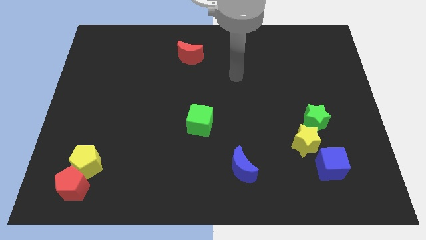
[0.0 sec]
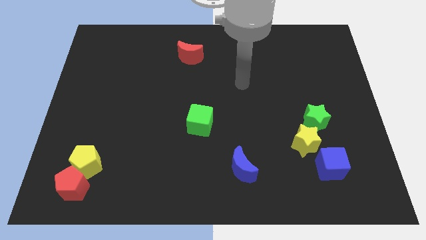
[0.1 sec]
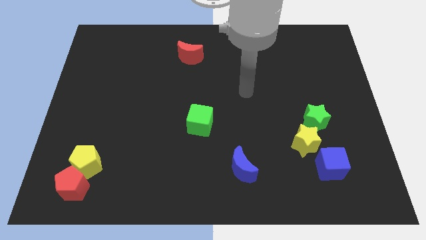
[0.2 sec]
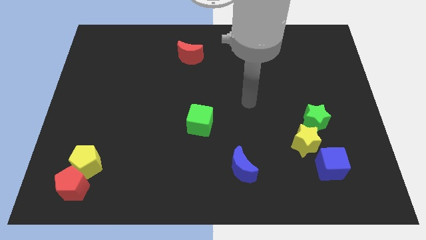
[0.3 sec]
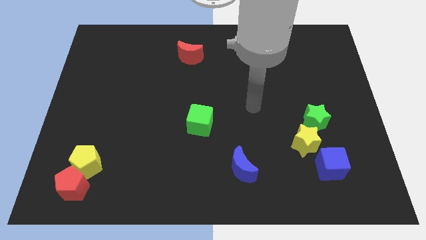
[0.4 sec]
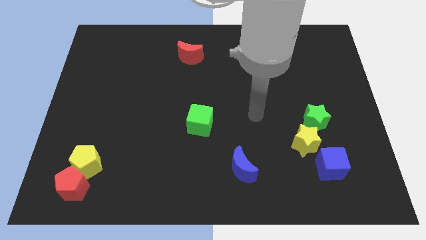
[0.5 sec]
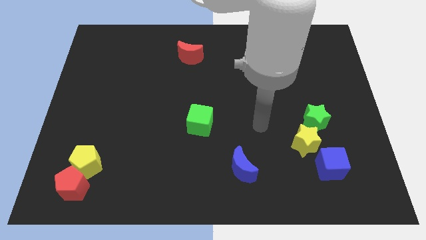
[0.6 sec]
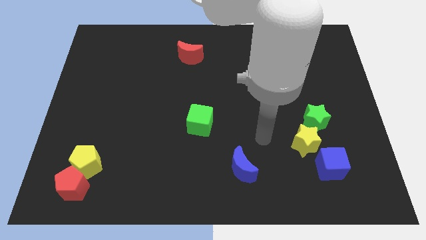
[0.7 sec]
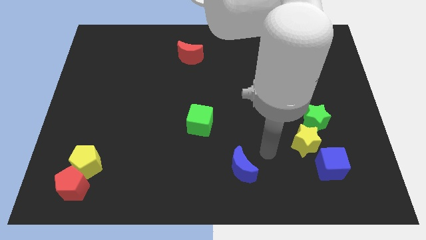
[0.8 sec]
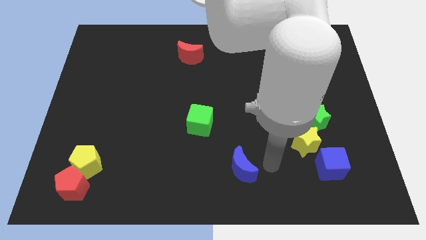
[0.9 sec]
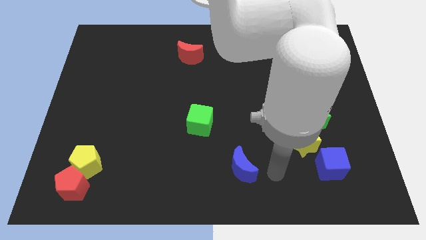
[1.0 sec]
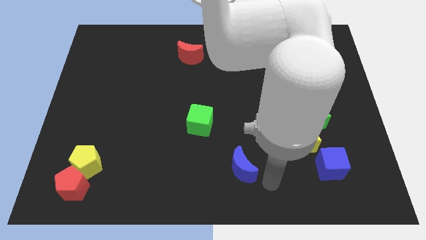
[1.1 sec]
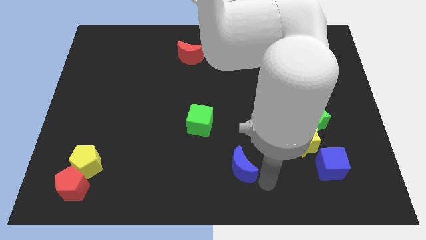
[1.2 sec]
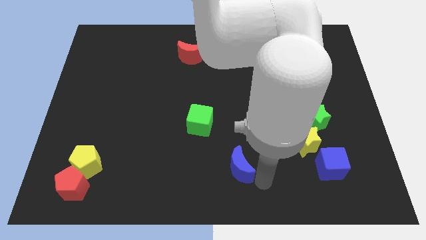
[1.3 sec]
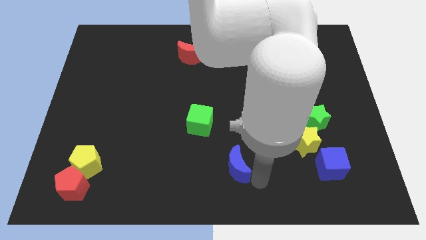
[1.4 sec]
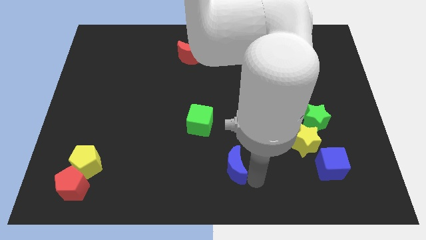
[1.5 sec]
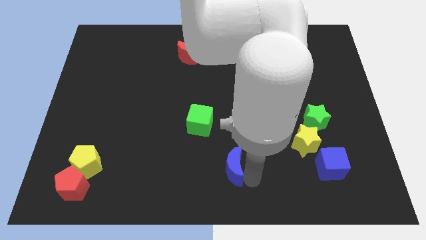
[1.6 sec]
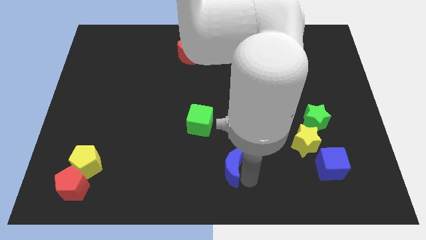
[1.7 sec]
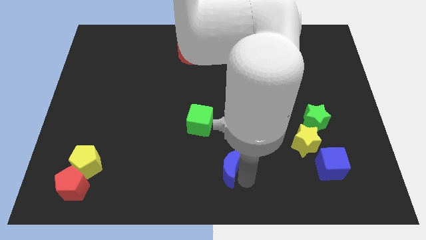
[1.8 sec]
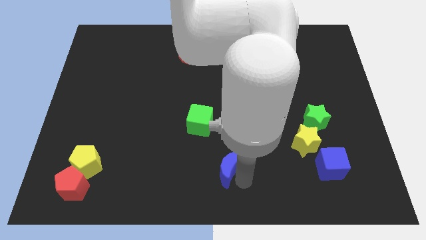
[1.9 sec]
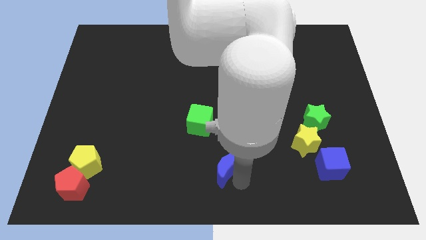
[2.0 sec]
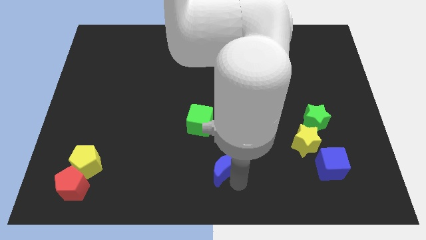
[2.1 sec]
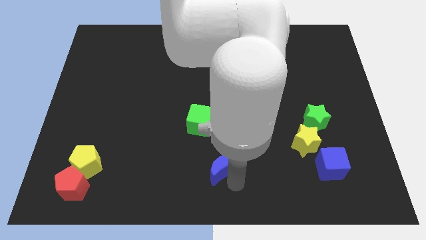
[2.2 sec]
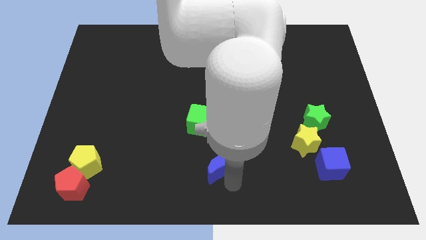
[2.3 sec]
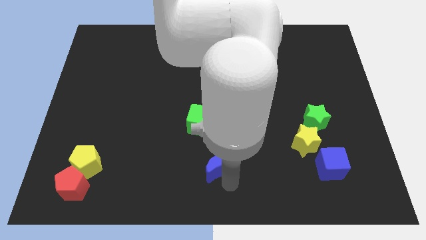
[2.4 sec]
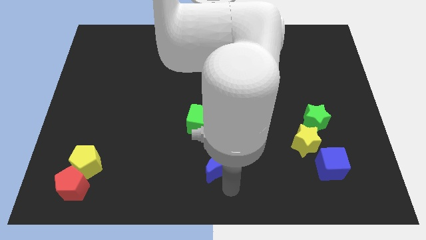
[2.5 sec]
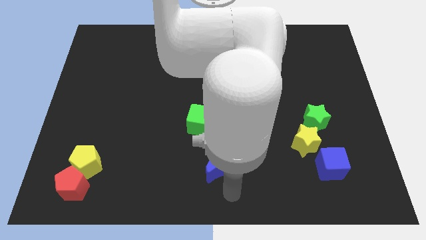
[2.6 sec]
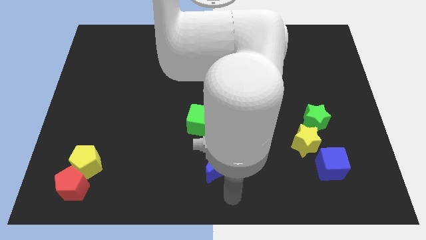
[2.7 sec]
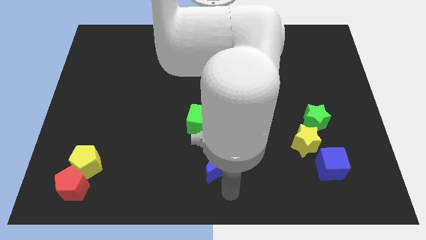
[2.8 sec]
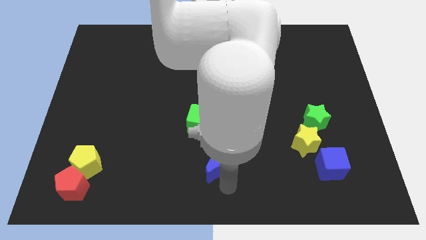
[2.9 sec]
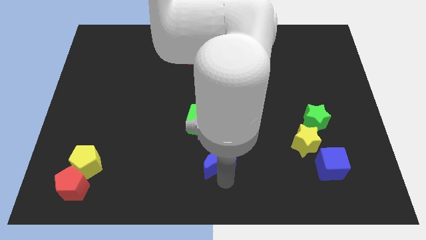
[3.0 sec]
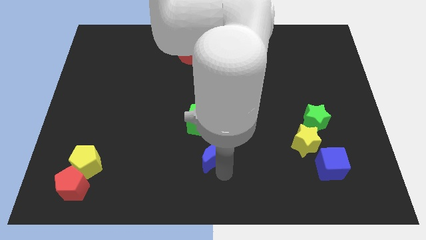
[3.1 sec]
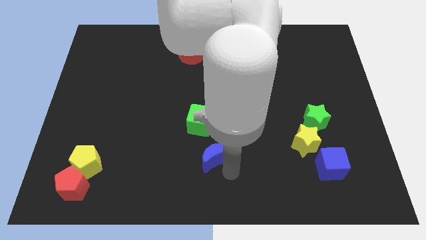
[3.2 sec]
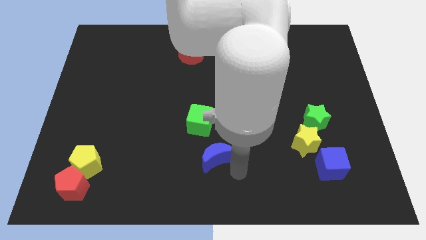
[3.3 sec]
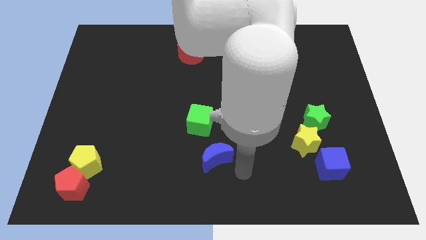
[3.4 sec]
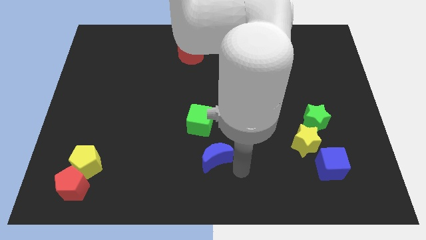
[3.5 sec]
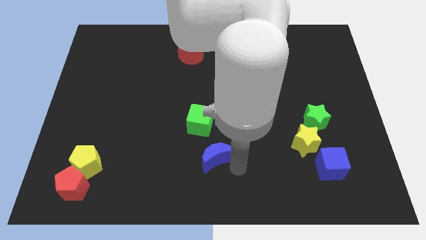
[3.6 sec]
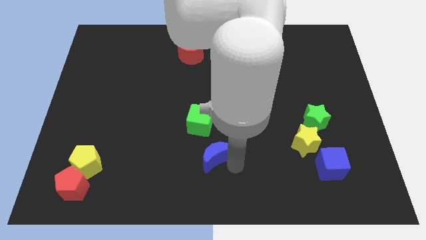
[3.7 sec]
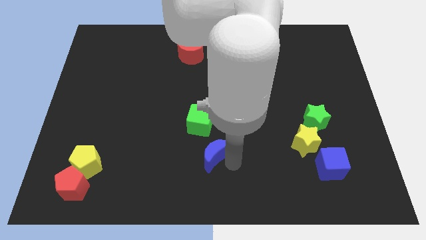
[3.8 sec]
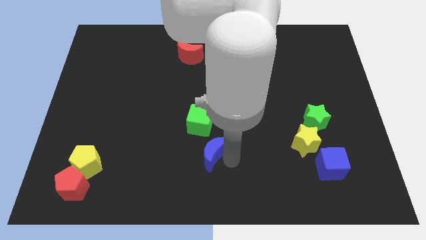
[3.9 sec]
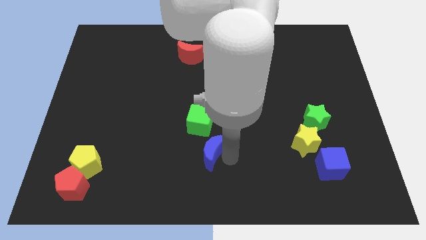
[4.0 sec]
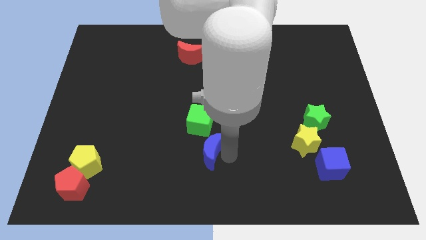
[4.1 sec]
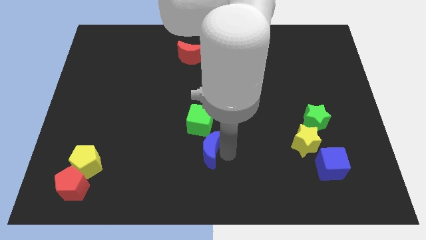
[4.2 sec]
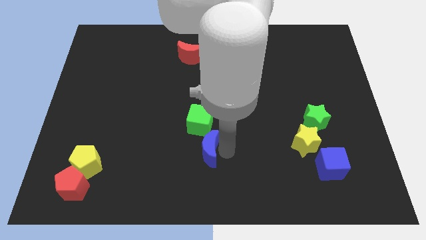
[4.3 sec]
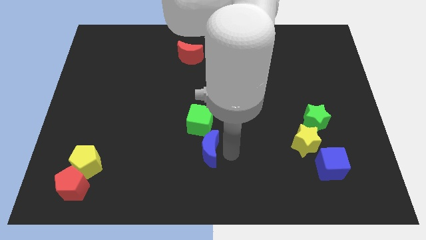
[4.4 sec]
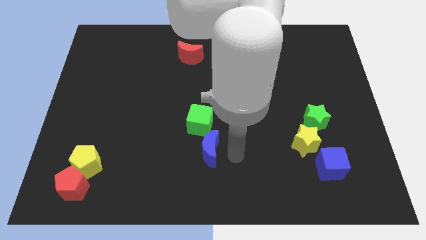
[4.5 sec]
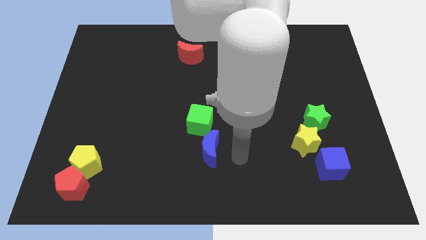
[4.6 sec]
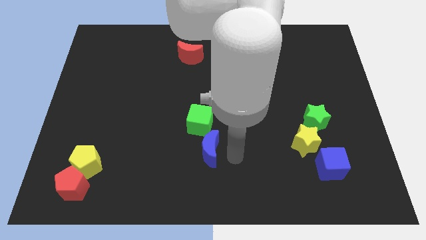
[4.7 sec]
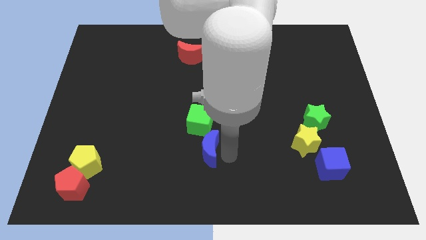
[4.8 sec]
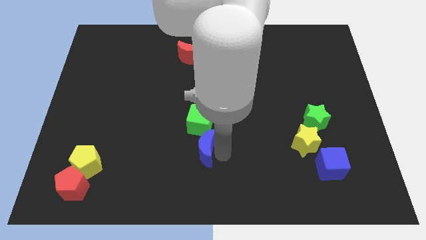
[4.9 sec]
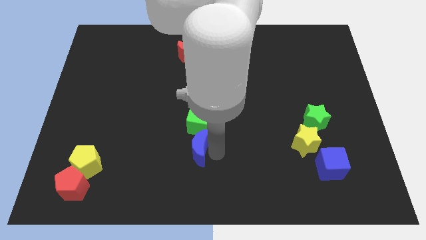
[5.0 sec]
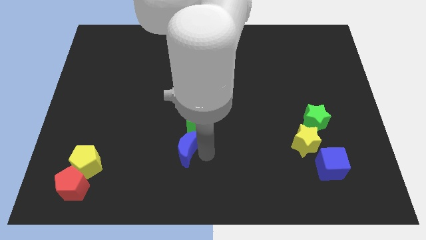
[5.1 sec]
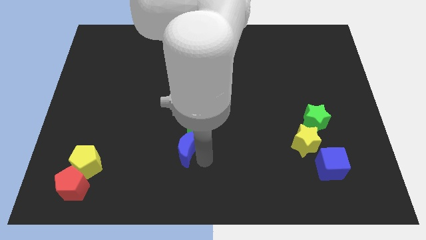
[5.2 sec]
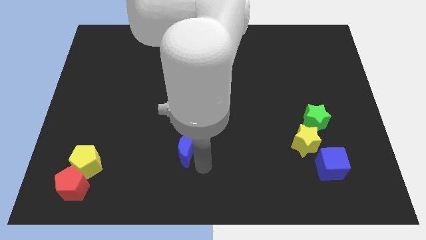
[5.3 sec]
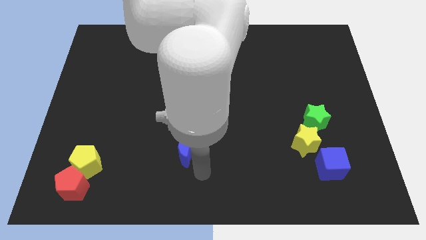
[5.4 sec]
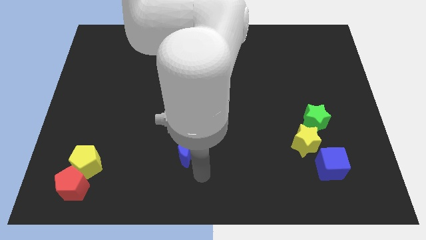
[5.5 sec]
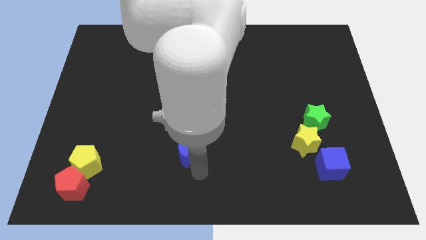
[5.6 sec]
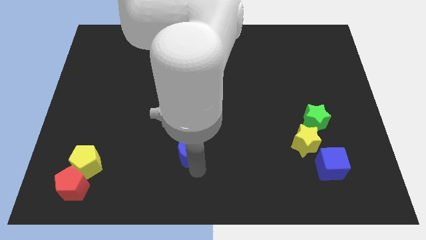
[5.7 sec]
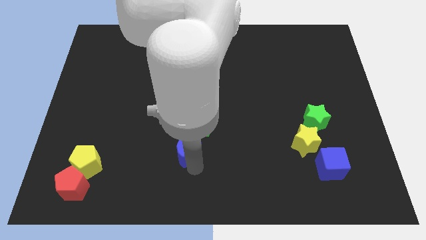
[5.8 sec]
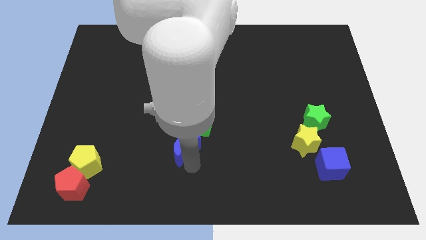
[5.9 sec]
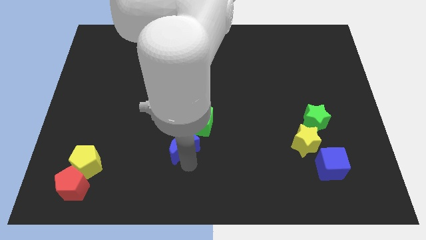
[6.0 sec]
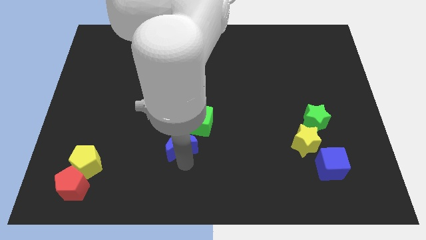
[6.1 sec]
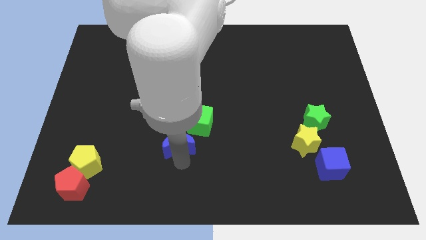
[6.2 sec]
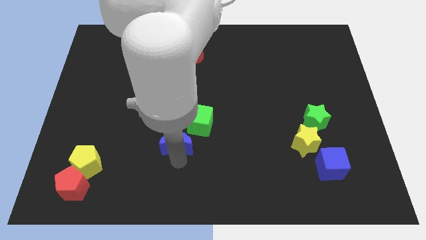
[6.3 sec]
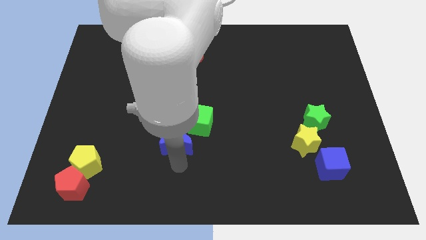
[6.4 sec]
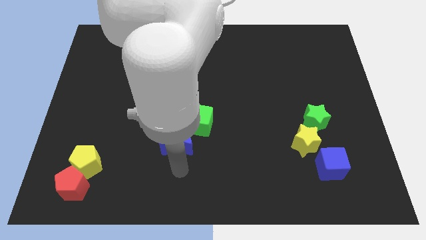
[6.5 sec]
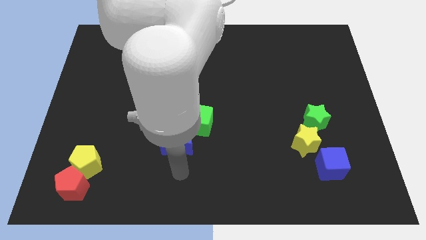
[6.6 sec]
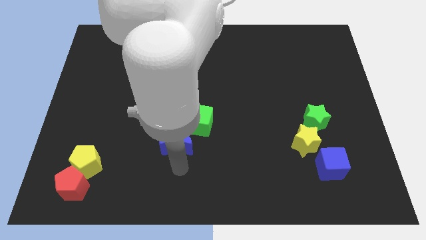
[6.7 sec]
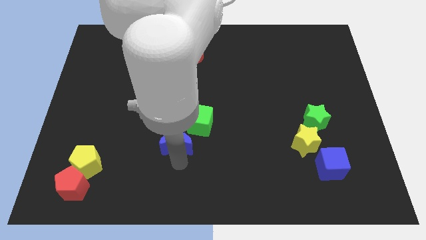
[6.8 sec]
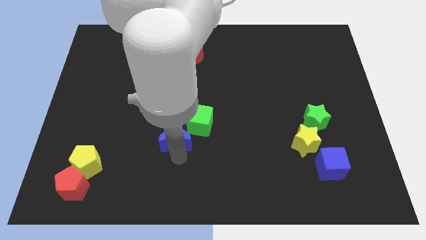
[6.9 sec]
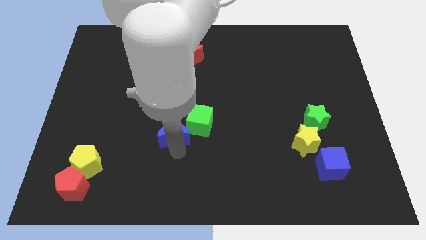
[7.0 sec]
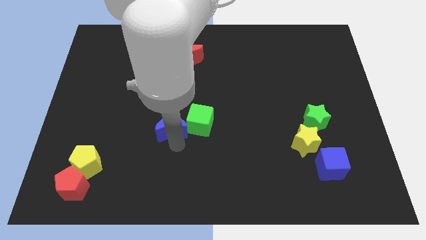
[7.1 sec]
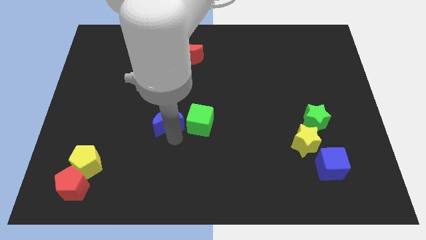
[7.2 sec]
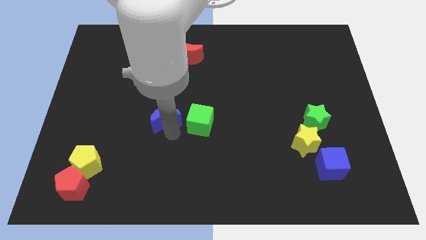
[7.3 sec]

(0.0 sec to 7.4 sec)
slide the blue moon upwards and left

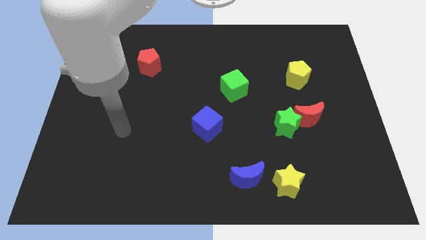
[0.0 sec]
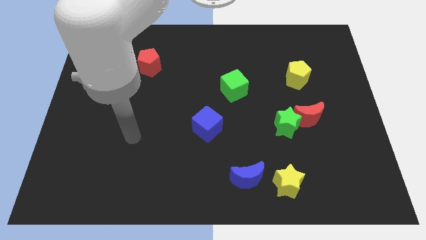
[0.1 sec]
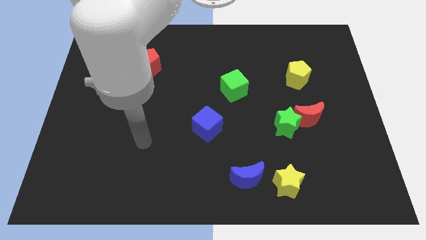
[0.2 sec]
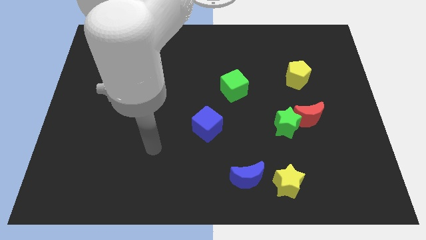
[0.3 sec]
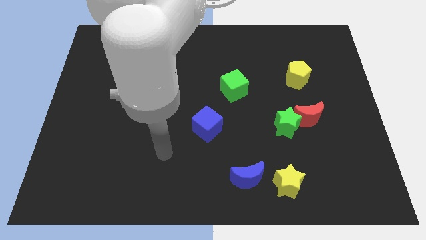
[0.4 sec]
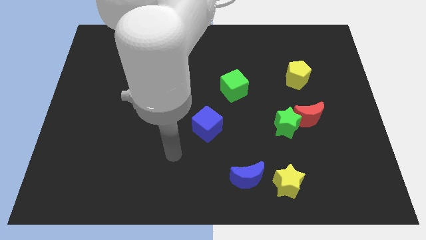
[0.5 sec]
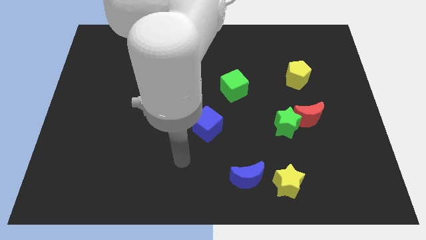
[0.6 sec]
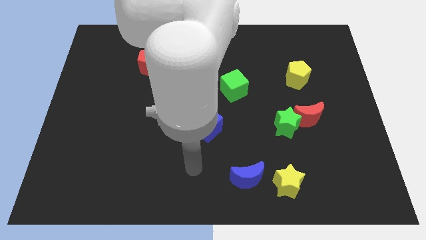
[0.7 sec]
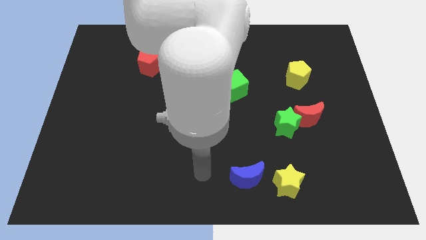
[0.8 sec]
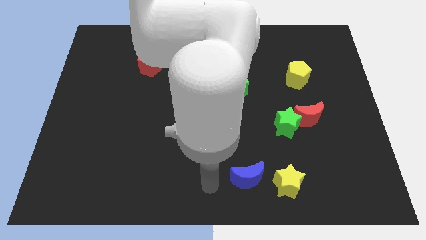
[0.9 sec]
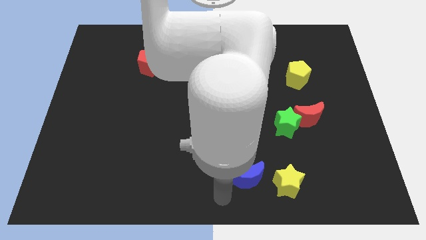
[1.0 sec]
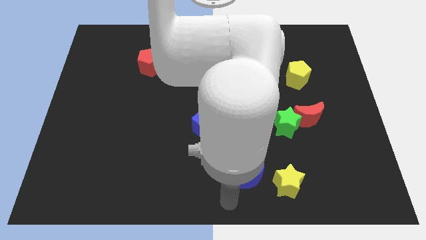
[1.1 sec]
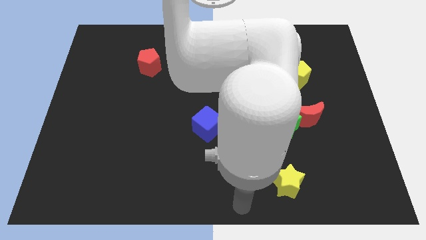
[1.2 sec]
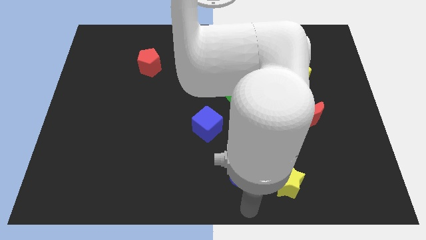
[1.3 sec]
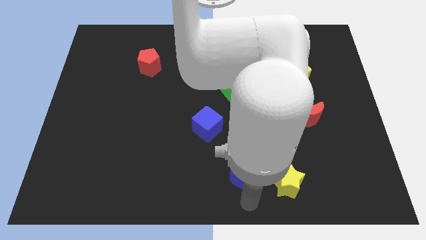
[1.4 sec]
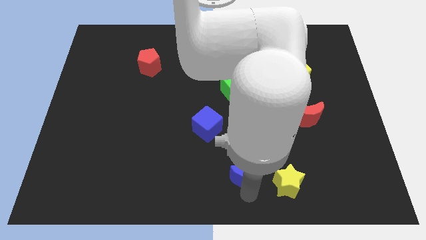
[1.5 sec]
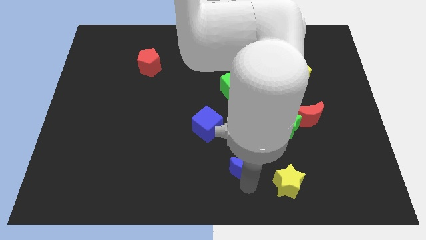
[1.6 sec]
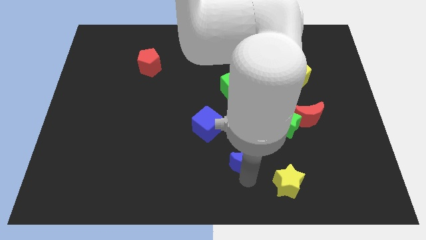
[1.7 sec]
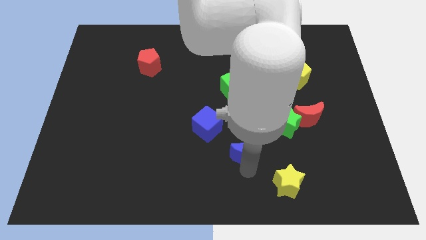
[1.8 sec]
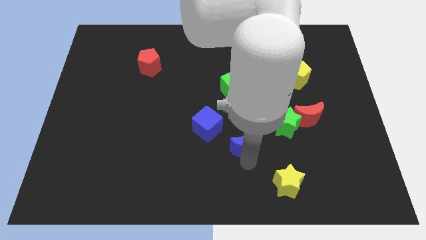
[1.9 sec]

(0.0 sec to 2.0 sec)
slightly move the blue moon upwards
